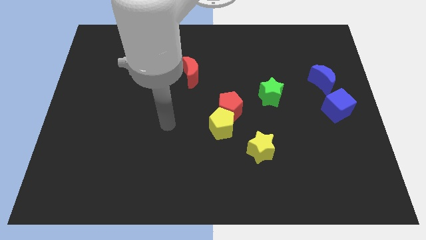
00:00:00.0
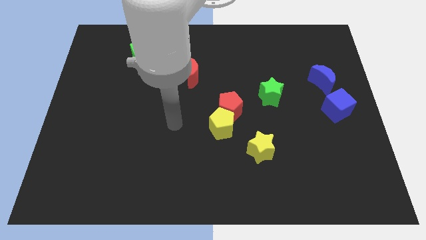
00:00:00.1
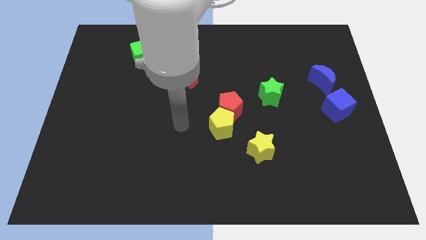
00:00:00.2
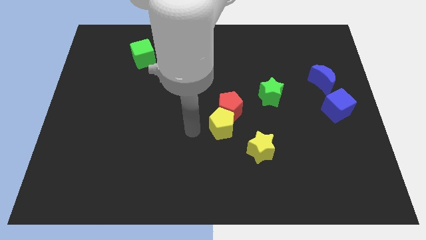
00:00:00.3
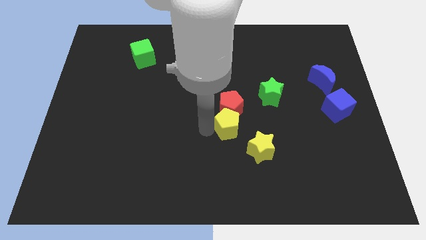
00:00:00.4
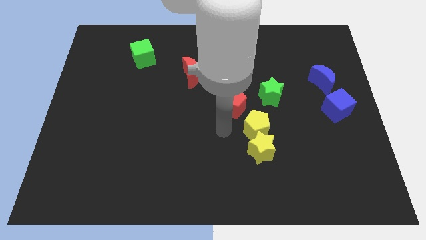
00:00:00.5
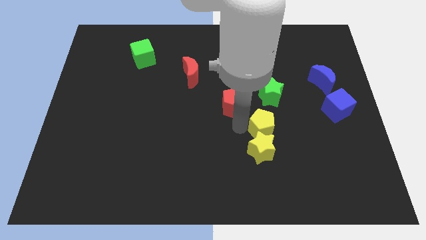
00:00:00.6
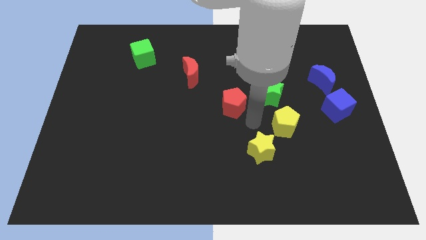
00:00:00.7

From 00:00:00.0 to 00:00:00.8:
move the red pentagon away from the yellow pentagon

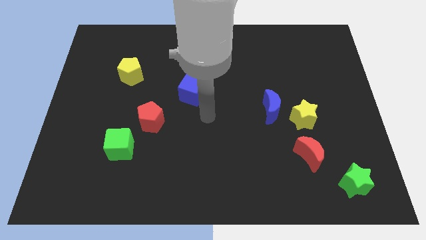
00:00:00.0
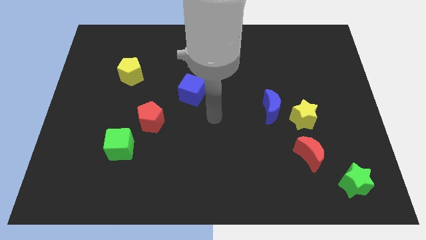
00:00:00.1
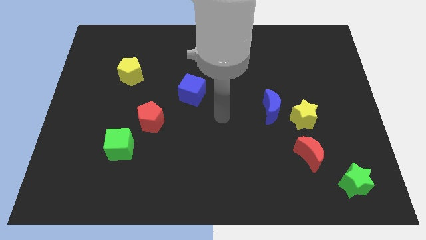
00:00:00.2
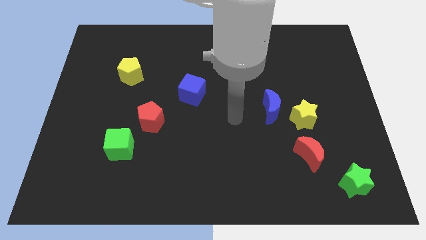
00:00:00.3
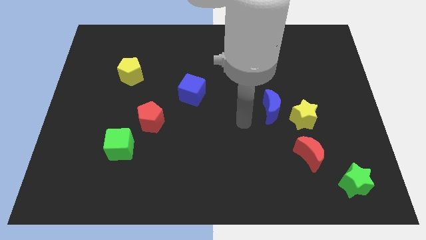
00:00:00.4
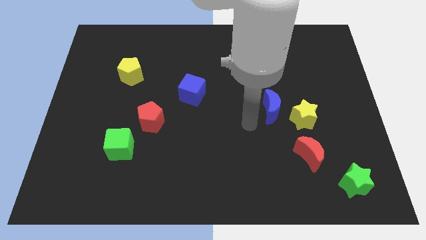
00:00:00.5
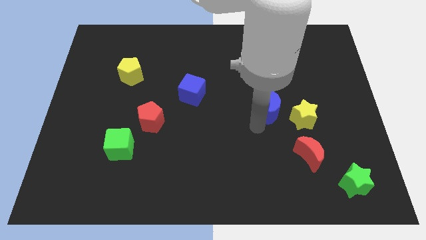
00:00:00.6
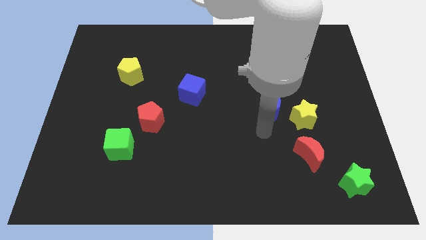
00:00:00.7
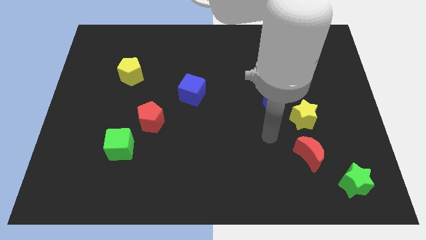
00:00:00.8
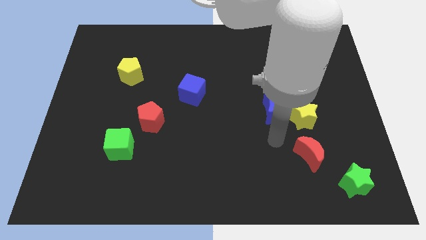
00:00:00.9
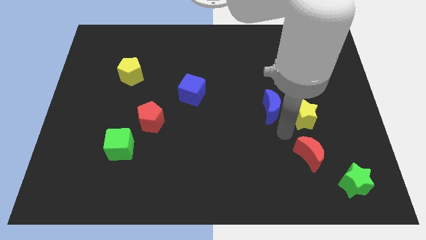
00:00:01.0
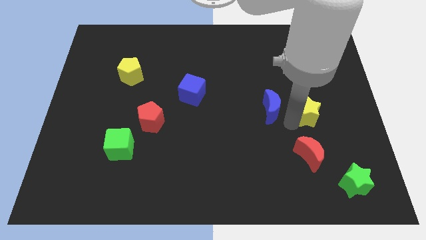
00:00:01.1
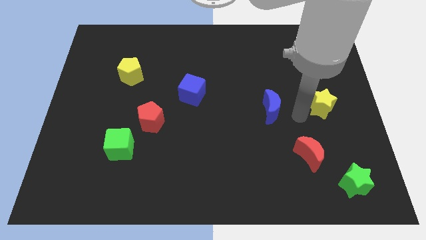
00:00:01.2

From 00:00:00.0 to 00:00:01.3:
move the blue moon away from the yellow star

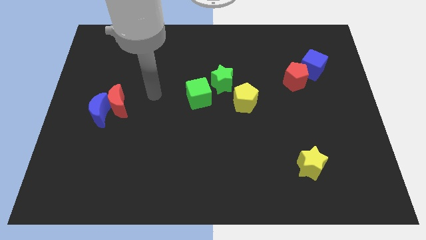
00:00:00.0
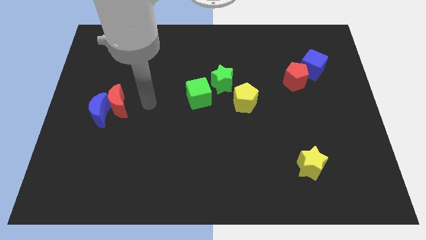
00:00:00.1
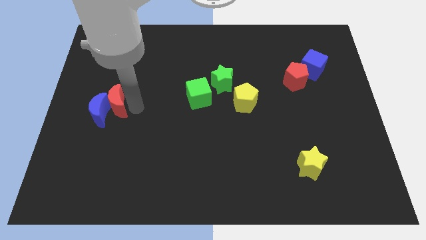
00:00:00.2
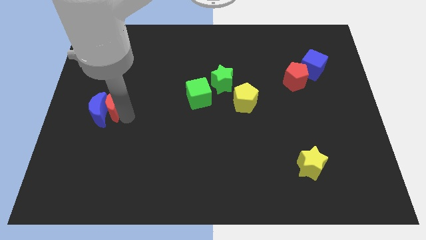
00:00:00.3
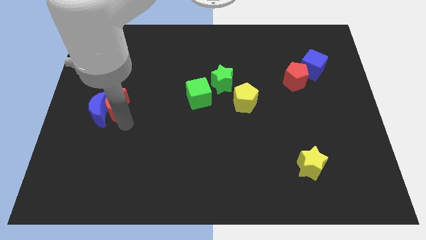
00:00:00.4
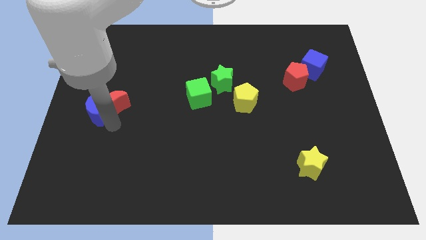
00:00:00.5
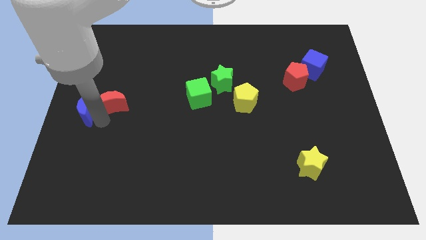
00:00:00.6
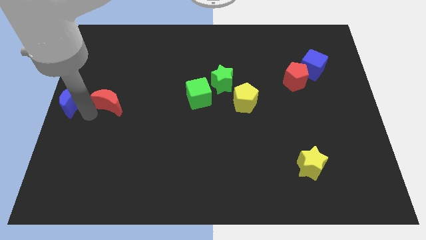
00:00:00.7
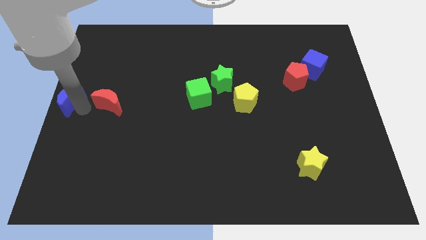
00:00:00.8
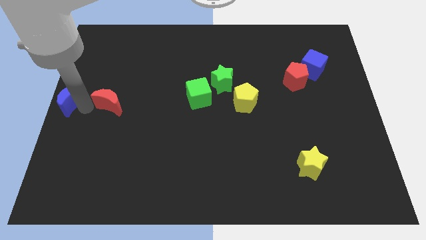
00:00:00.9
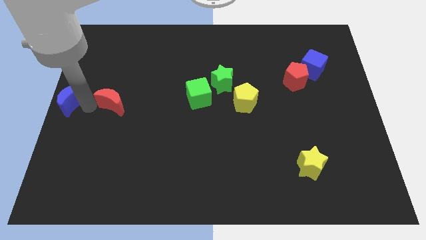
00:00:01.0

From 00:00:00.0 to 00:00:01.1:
pull the red moon apart from the blue moon

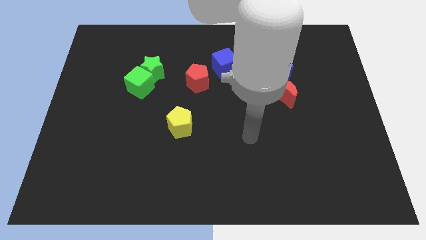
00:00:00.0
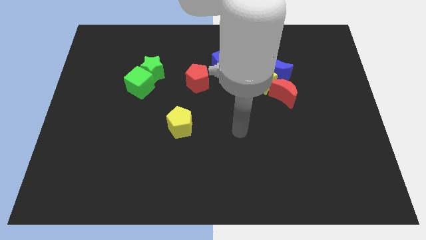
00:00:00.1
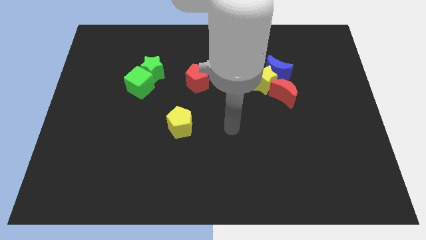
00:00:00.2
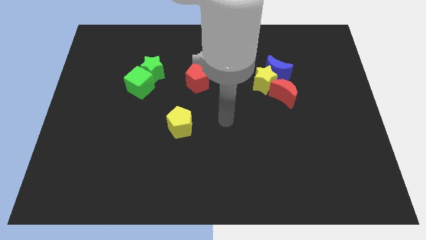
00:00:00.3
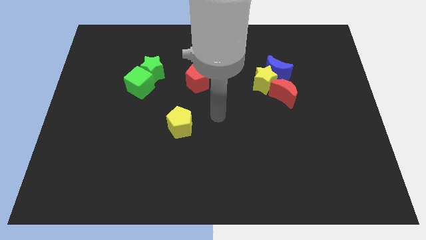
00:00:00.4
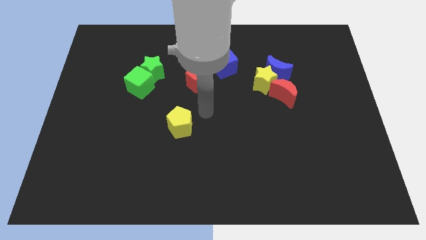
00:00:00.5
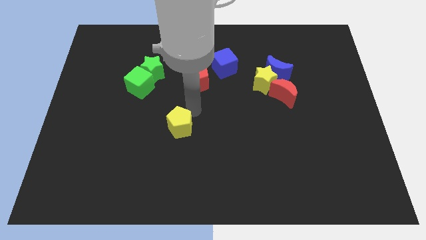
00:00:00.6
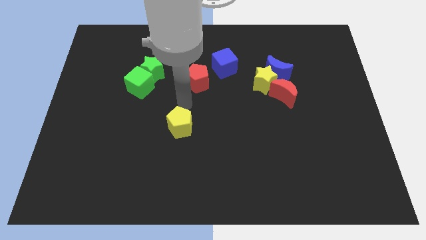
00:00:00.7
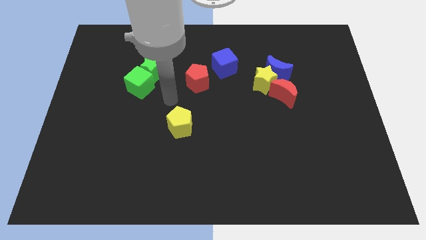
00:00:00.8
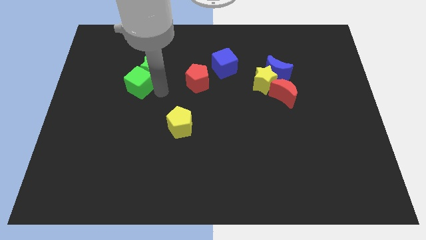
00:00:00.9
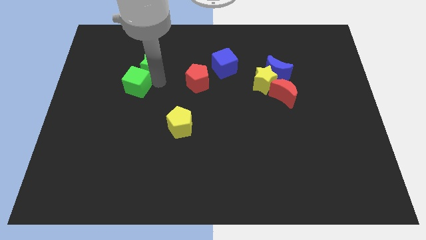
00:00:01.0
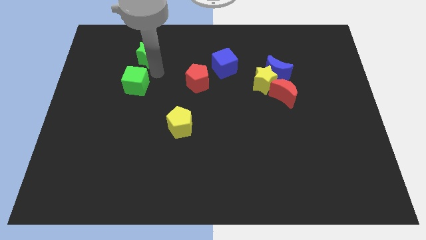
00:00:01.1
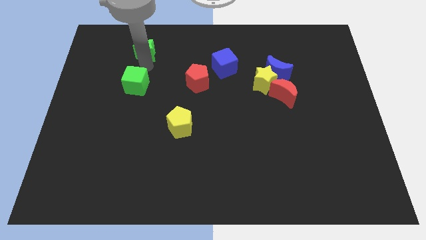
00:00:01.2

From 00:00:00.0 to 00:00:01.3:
pull the green cube apart from the green star

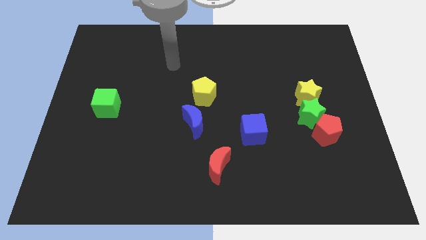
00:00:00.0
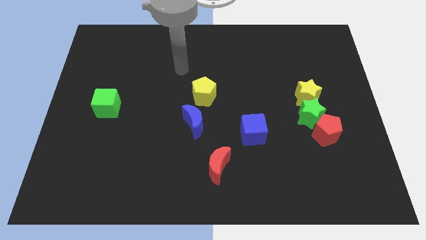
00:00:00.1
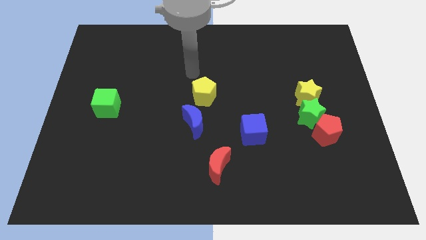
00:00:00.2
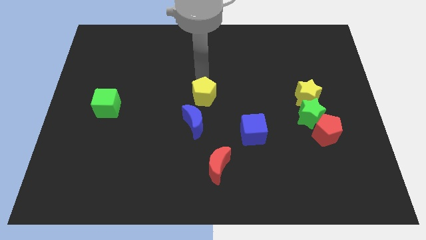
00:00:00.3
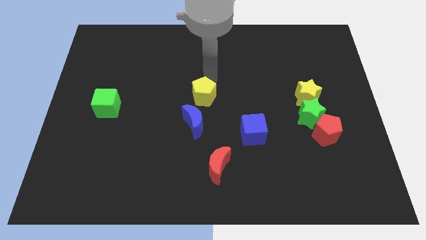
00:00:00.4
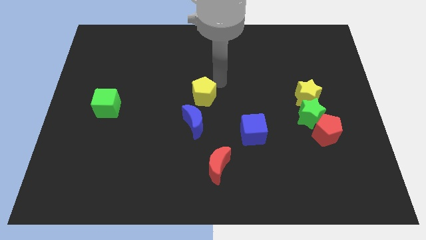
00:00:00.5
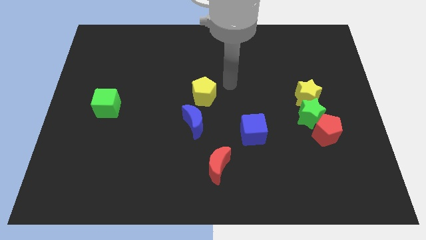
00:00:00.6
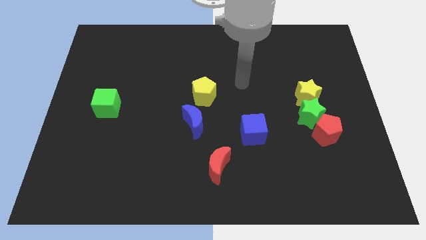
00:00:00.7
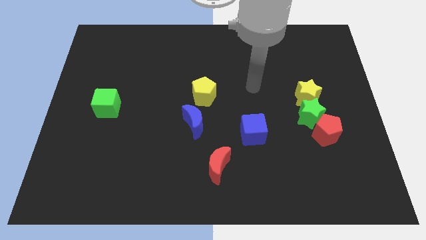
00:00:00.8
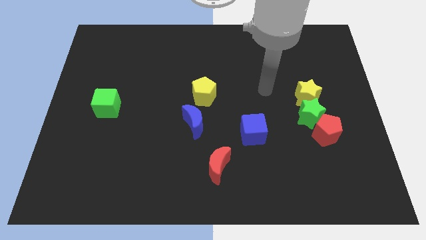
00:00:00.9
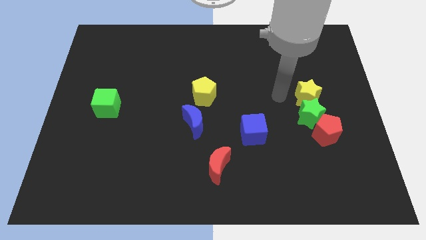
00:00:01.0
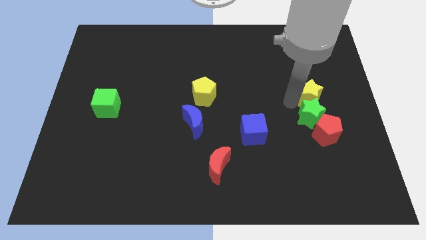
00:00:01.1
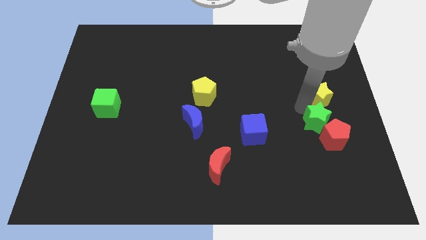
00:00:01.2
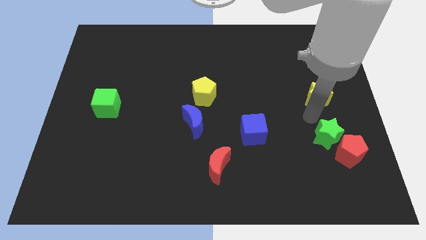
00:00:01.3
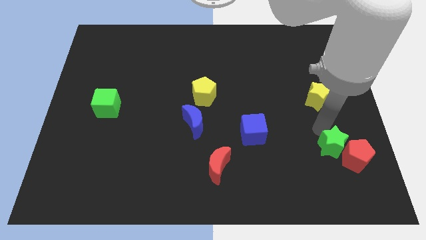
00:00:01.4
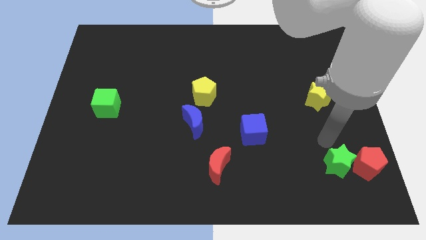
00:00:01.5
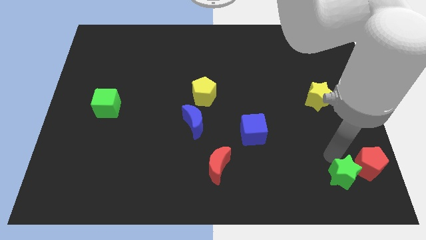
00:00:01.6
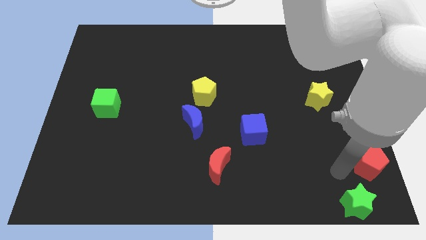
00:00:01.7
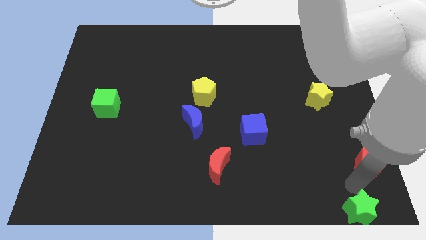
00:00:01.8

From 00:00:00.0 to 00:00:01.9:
move the red pentagon away from the green star

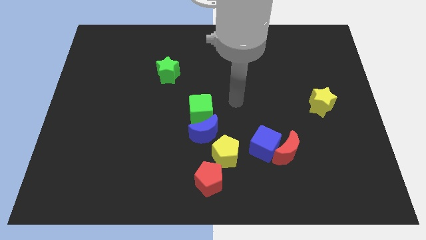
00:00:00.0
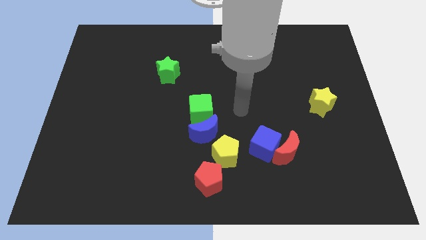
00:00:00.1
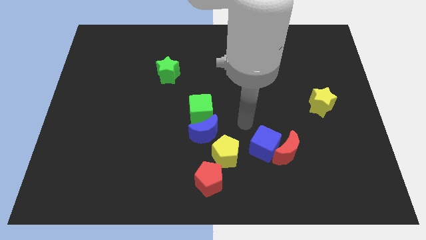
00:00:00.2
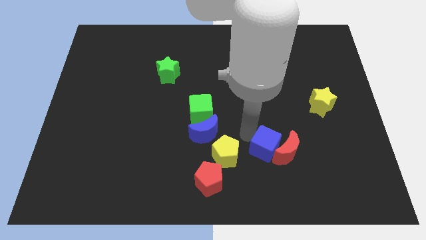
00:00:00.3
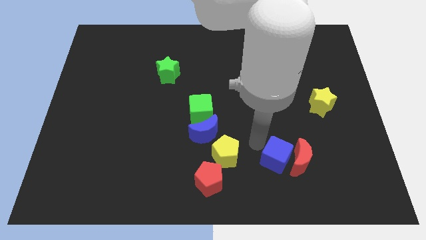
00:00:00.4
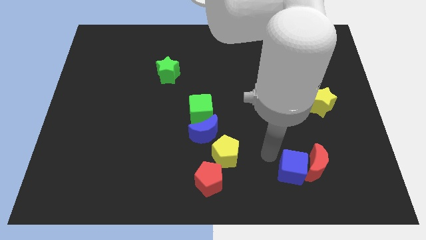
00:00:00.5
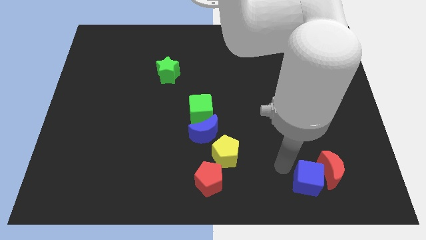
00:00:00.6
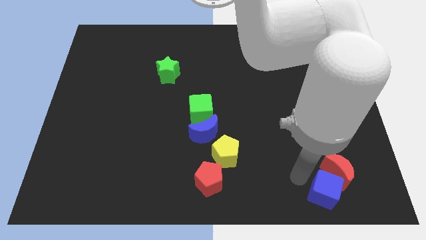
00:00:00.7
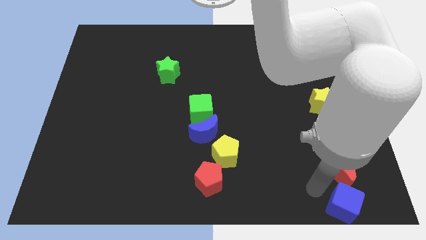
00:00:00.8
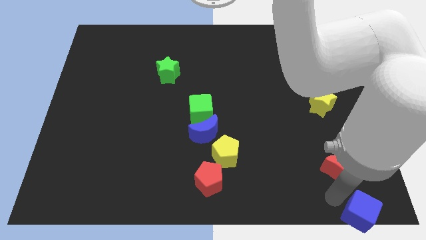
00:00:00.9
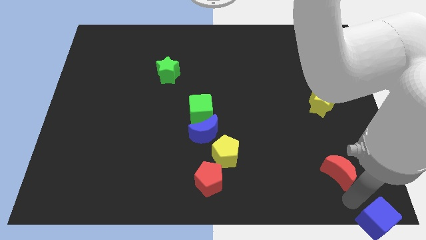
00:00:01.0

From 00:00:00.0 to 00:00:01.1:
separate the red moon from the blue cube

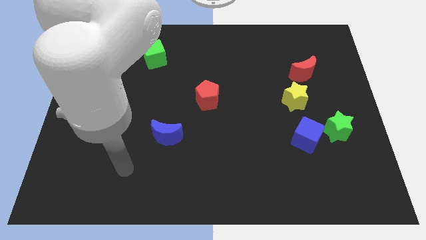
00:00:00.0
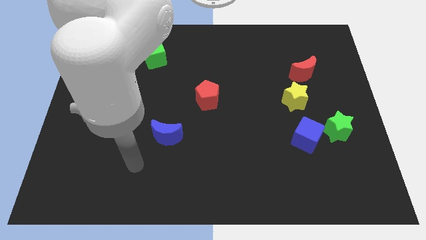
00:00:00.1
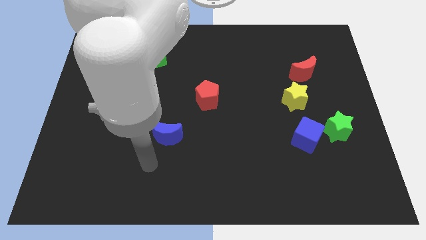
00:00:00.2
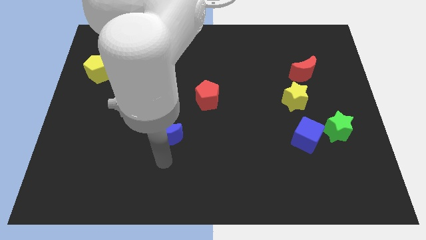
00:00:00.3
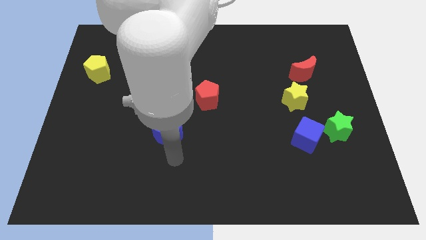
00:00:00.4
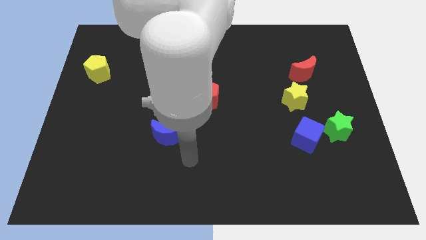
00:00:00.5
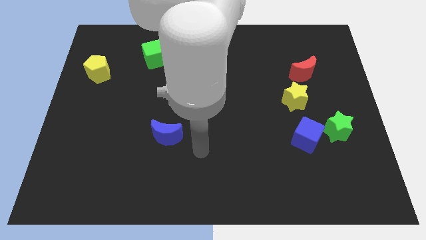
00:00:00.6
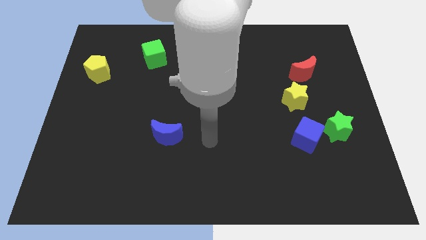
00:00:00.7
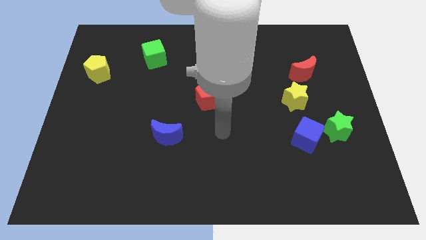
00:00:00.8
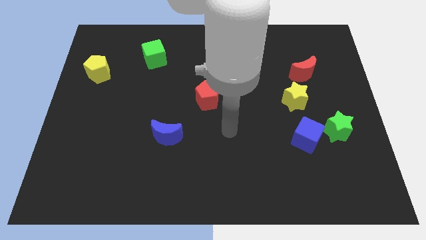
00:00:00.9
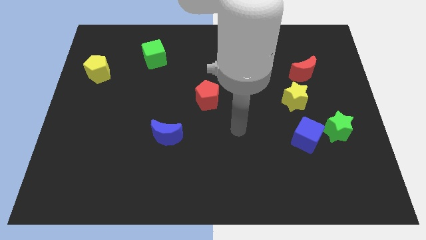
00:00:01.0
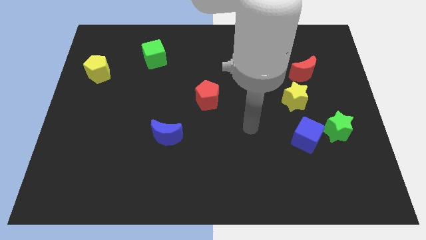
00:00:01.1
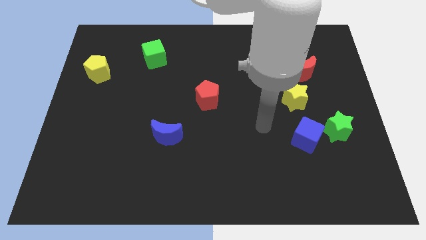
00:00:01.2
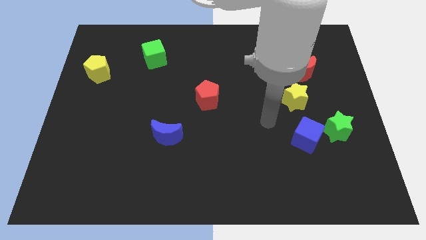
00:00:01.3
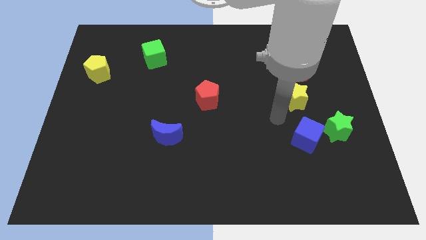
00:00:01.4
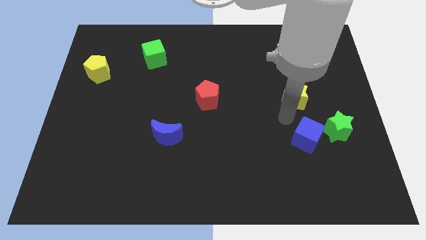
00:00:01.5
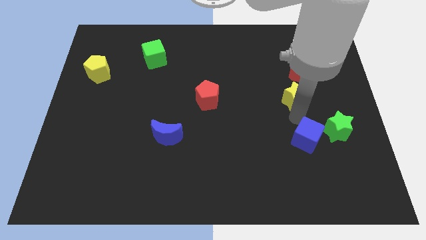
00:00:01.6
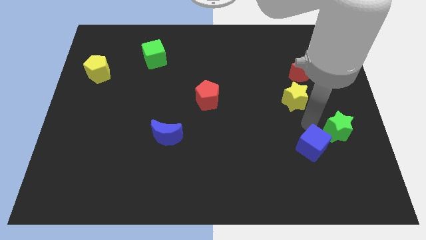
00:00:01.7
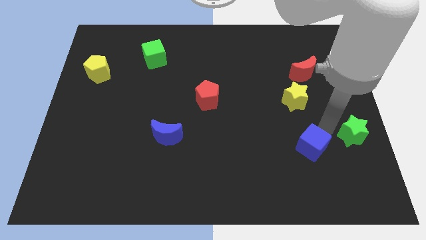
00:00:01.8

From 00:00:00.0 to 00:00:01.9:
move the blue cube away from the green star
